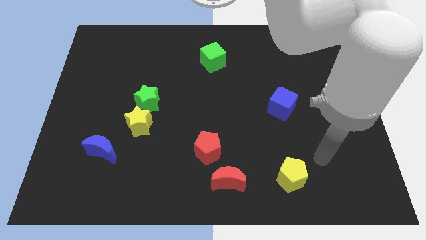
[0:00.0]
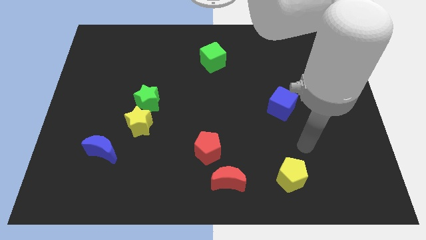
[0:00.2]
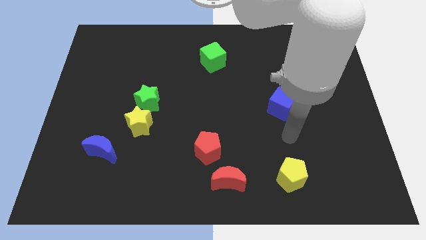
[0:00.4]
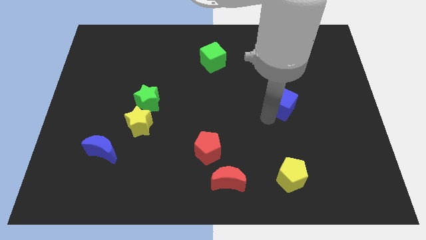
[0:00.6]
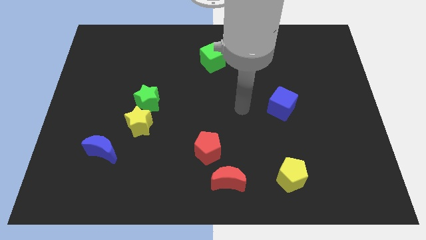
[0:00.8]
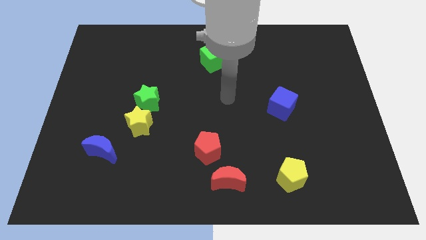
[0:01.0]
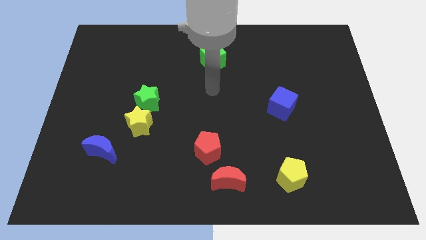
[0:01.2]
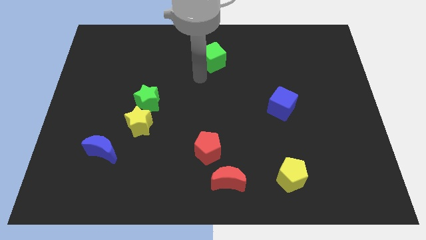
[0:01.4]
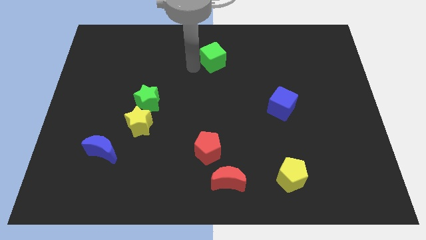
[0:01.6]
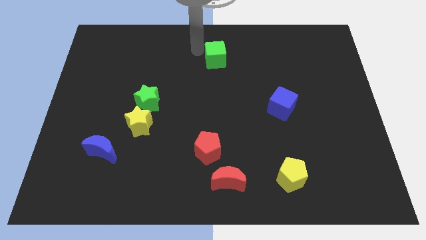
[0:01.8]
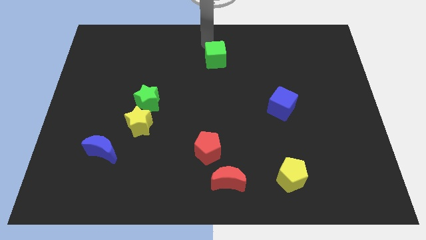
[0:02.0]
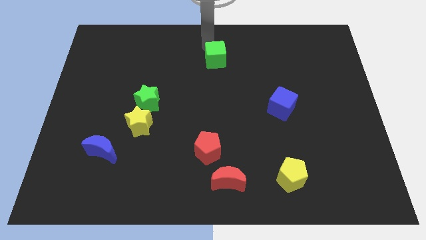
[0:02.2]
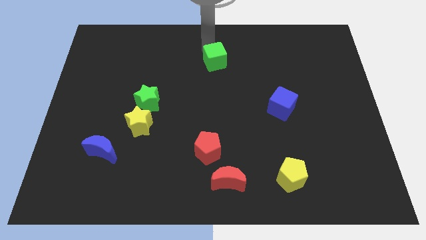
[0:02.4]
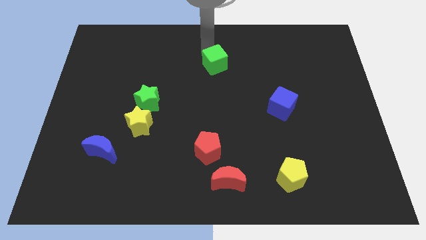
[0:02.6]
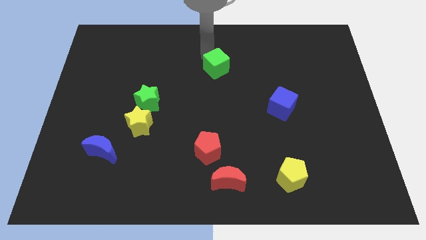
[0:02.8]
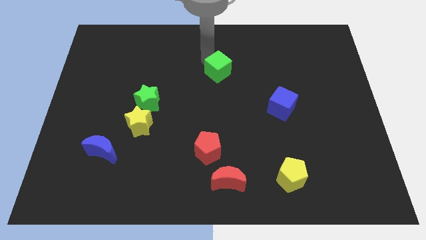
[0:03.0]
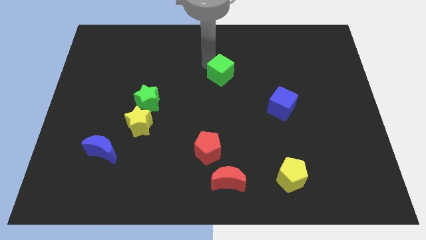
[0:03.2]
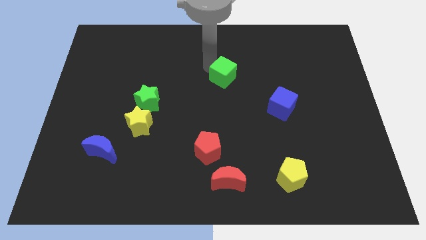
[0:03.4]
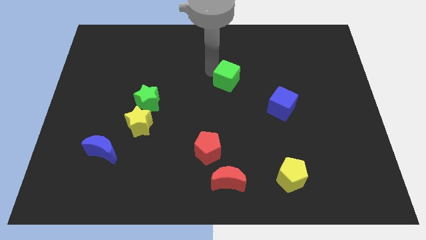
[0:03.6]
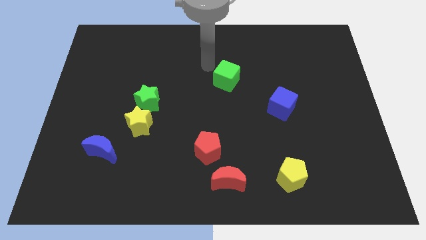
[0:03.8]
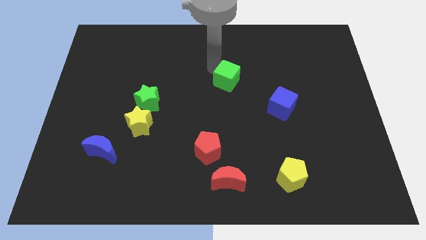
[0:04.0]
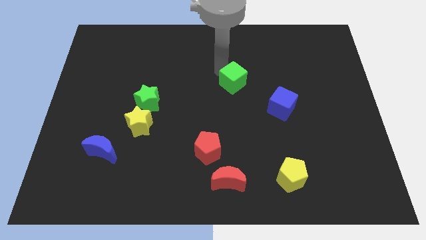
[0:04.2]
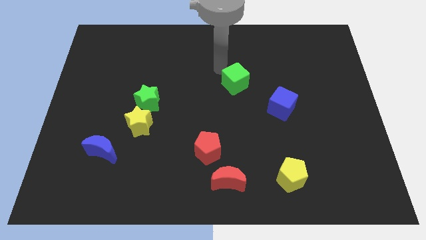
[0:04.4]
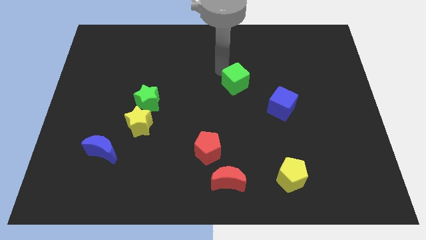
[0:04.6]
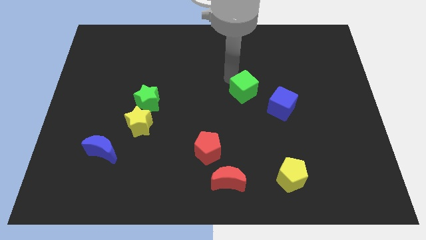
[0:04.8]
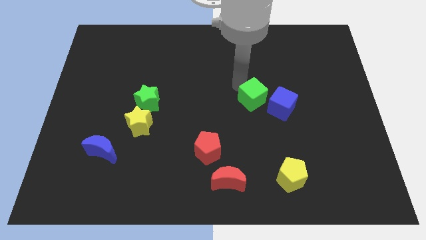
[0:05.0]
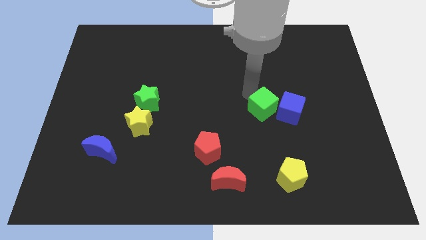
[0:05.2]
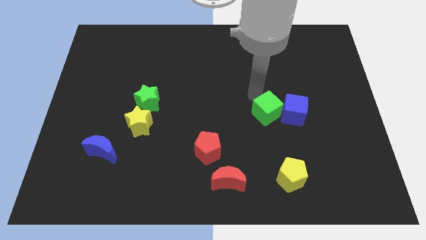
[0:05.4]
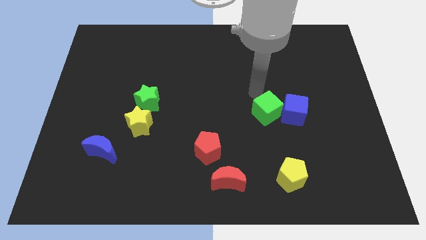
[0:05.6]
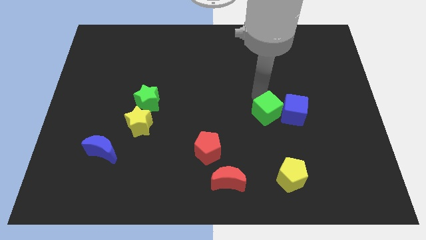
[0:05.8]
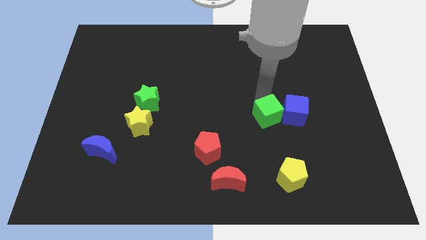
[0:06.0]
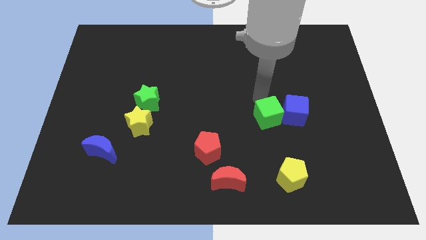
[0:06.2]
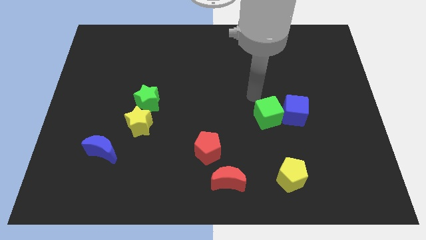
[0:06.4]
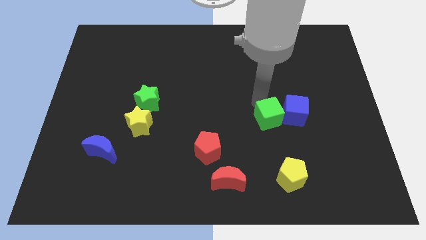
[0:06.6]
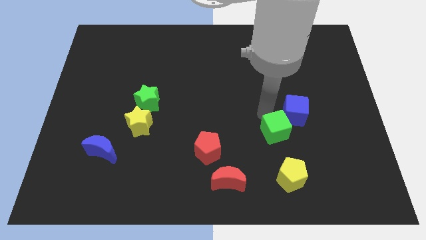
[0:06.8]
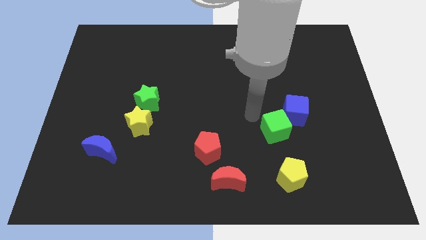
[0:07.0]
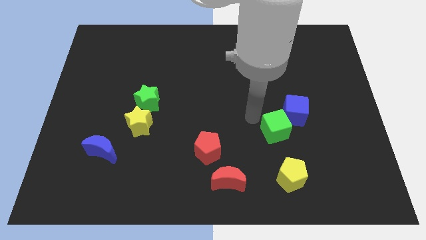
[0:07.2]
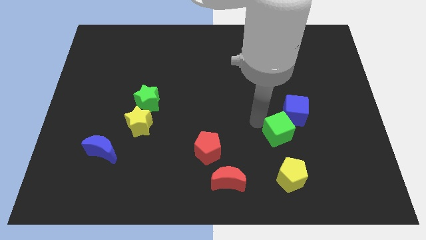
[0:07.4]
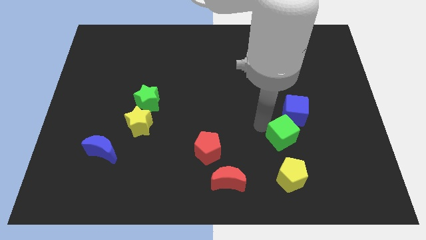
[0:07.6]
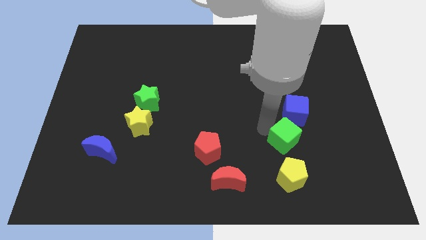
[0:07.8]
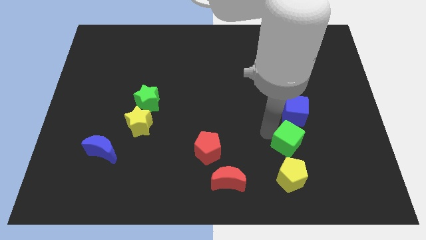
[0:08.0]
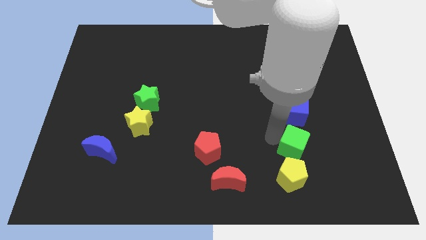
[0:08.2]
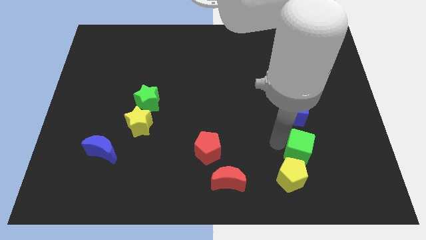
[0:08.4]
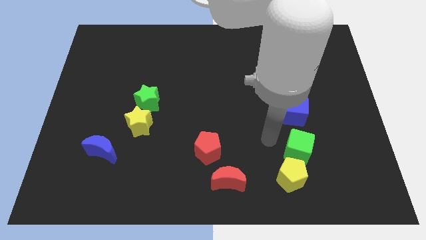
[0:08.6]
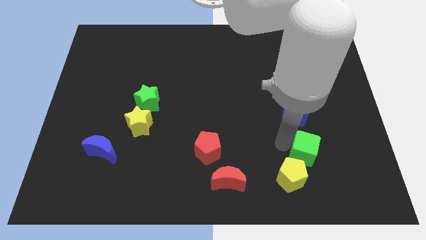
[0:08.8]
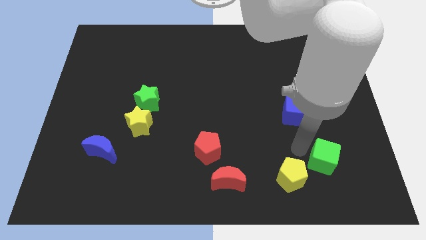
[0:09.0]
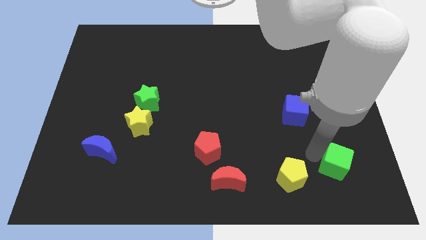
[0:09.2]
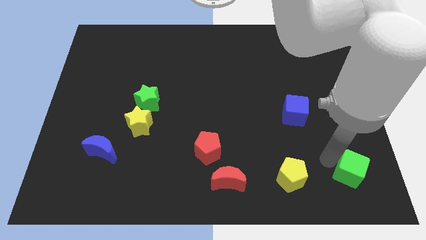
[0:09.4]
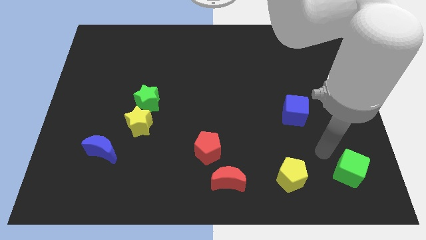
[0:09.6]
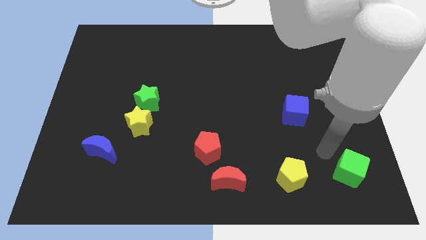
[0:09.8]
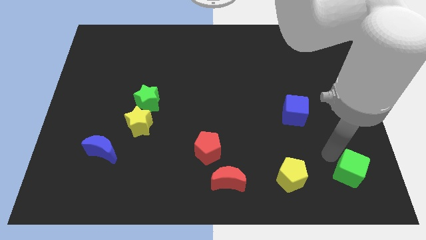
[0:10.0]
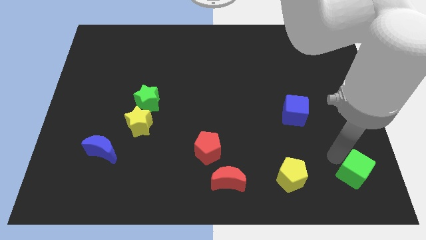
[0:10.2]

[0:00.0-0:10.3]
move the green cube to the bottom right corner

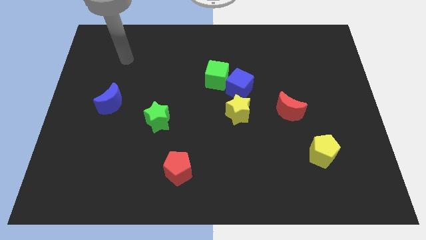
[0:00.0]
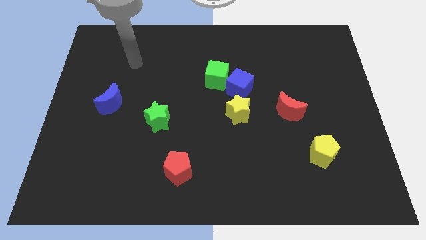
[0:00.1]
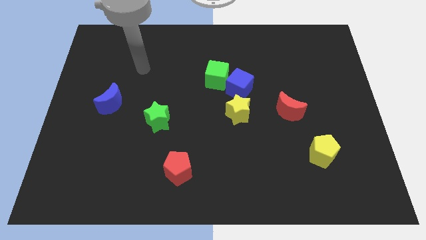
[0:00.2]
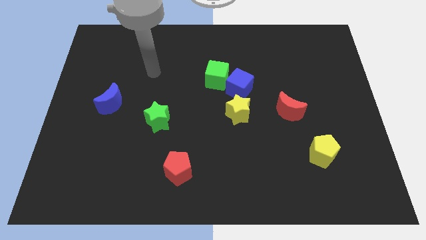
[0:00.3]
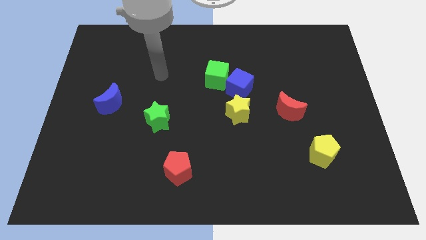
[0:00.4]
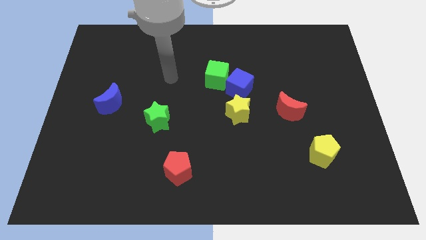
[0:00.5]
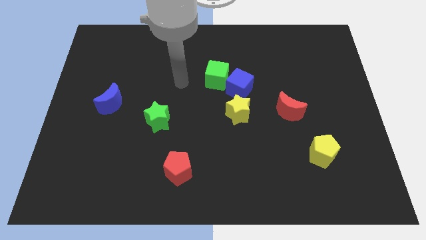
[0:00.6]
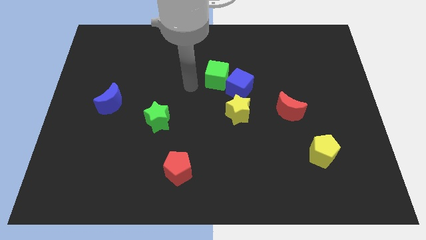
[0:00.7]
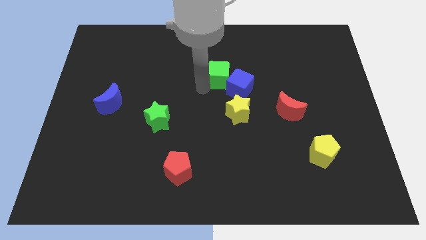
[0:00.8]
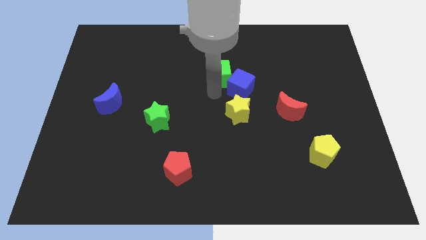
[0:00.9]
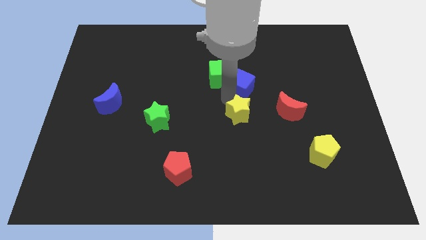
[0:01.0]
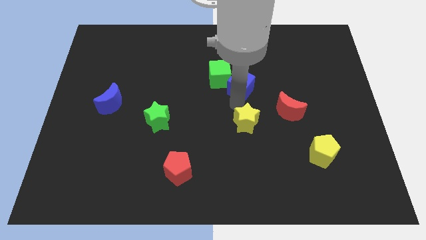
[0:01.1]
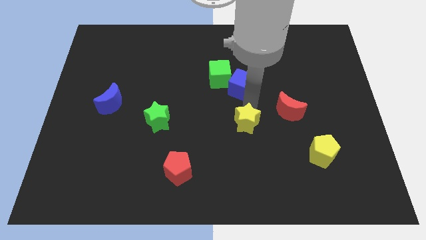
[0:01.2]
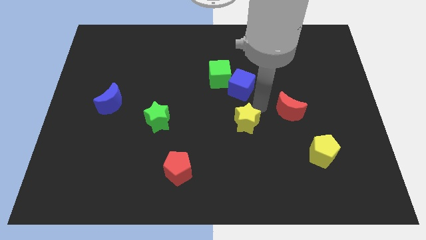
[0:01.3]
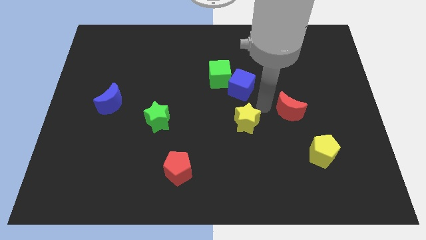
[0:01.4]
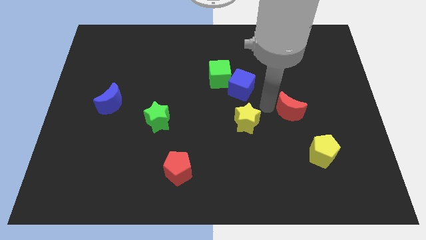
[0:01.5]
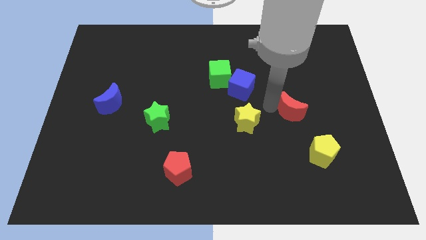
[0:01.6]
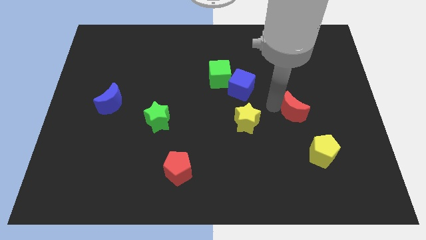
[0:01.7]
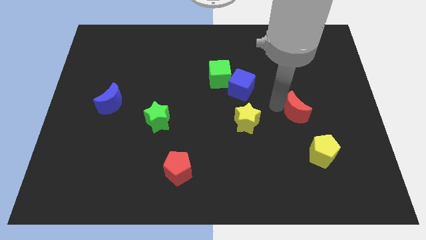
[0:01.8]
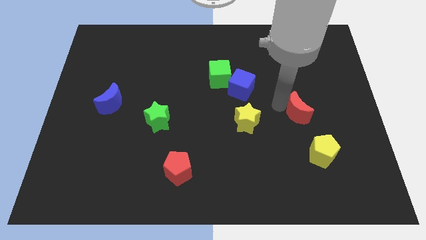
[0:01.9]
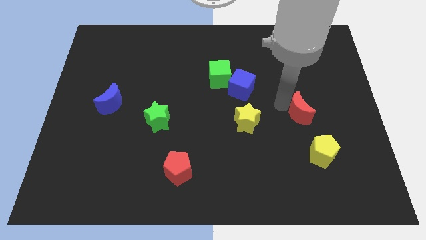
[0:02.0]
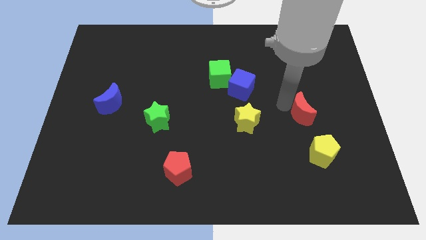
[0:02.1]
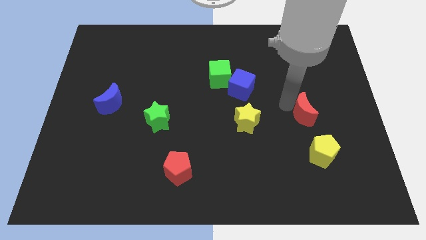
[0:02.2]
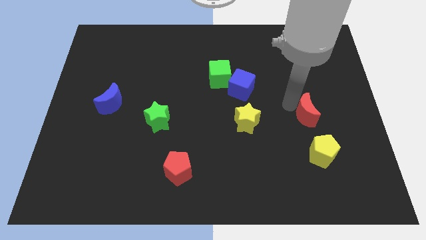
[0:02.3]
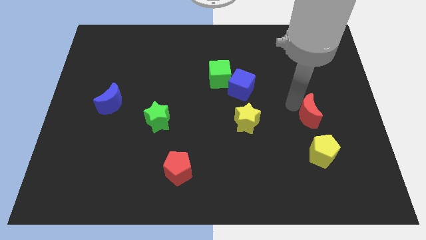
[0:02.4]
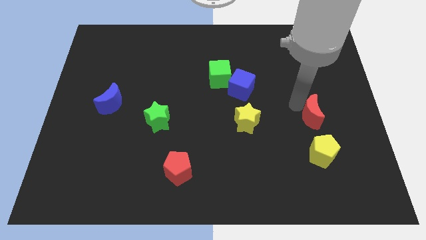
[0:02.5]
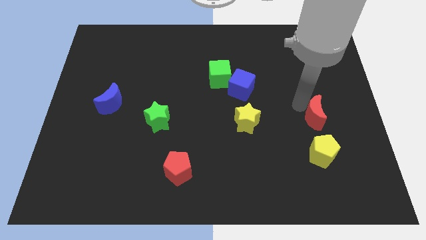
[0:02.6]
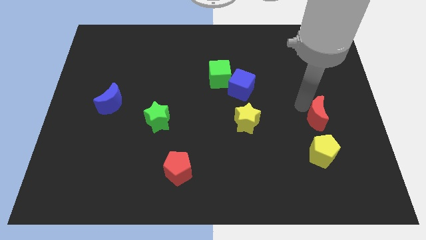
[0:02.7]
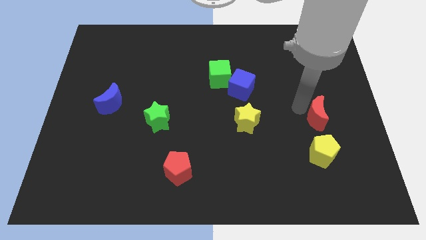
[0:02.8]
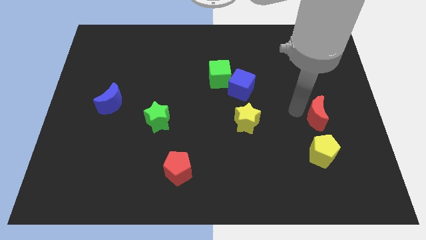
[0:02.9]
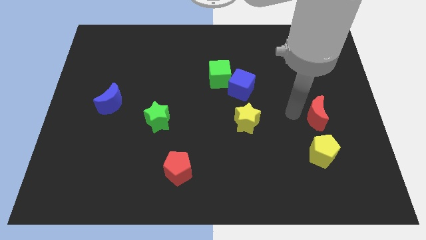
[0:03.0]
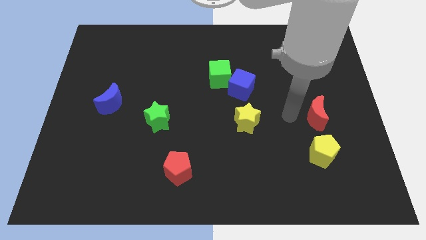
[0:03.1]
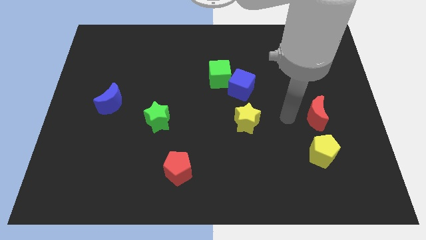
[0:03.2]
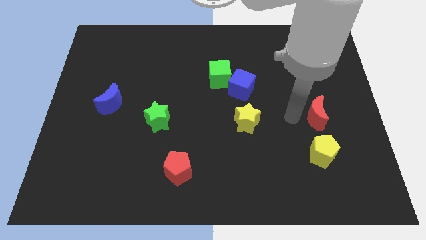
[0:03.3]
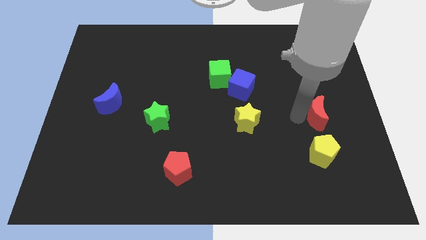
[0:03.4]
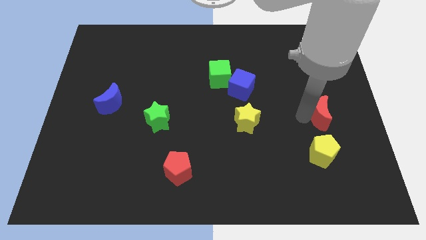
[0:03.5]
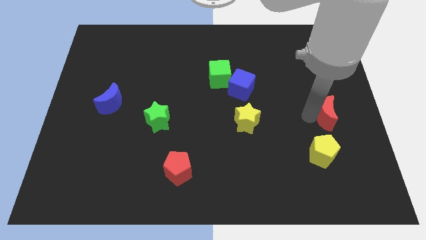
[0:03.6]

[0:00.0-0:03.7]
put the red moon to the right side
